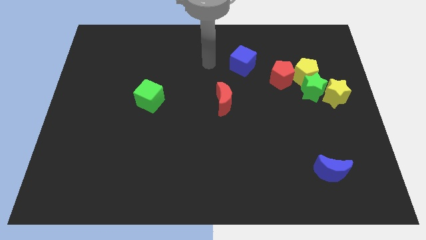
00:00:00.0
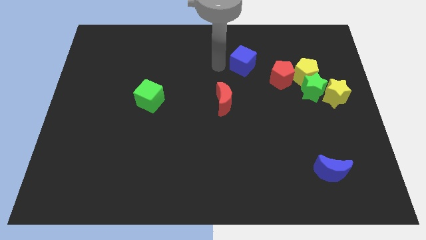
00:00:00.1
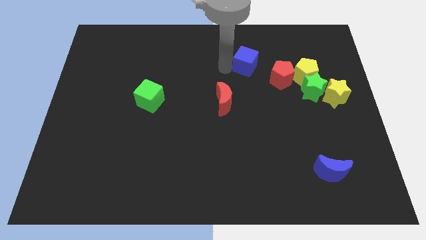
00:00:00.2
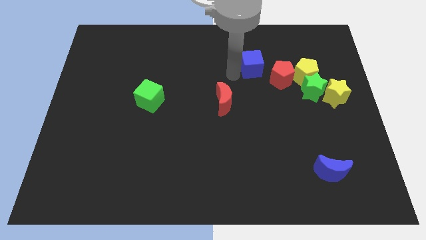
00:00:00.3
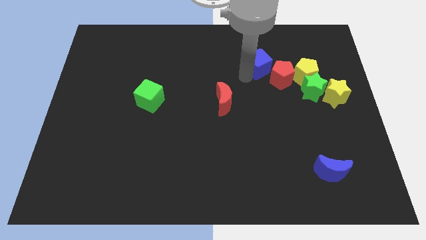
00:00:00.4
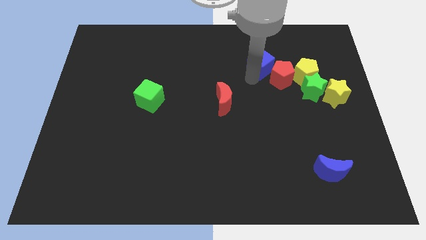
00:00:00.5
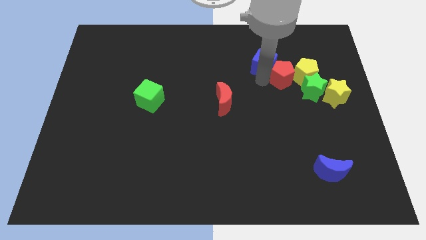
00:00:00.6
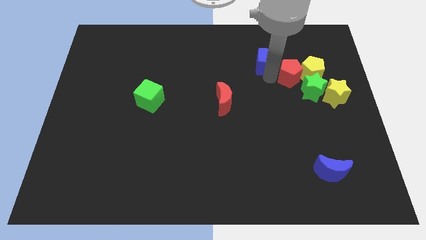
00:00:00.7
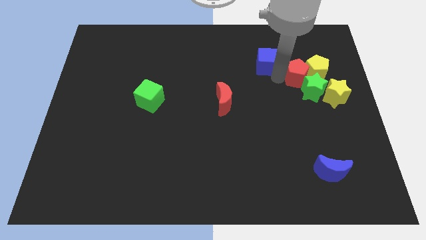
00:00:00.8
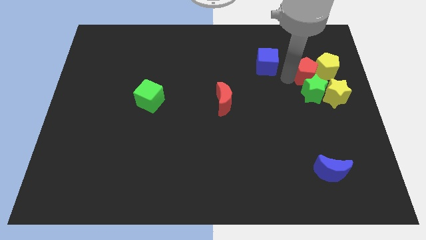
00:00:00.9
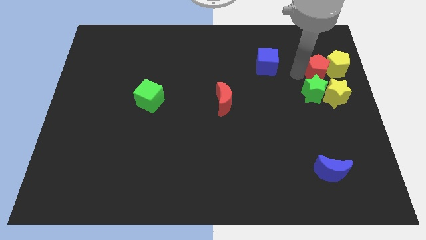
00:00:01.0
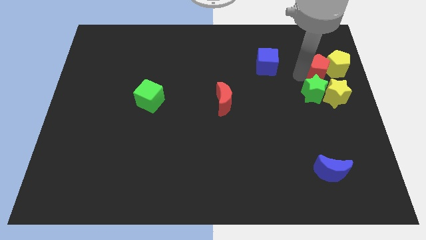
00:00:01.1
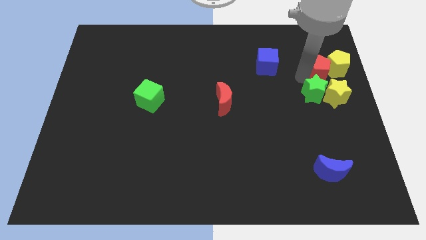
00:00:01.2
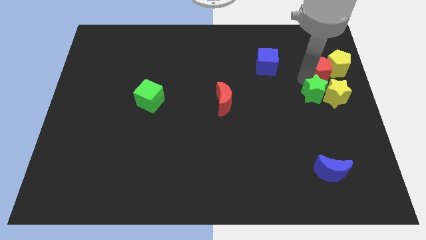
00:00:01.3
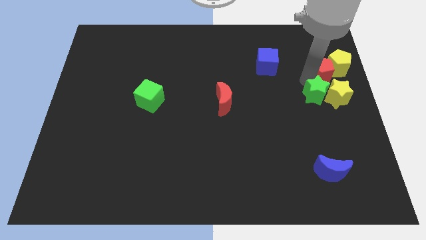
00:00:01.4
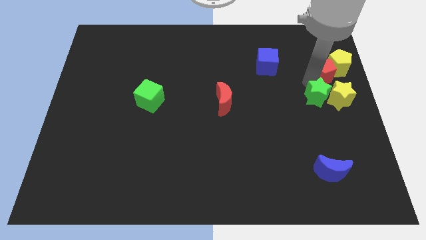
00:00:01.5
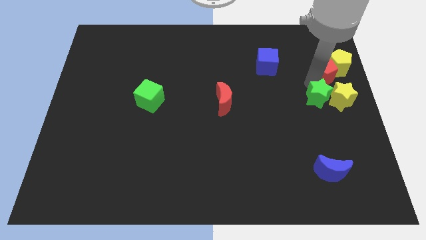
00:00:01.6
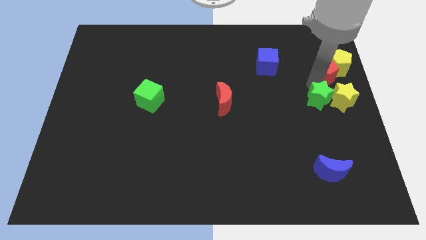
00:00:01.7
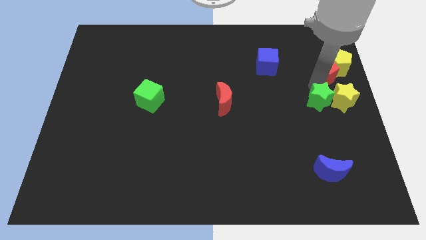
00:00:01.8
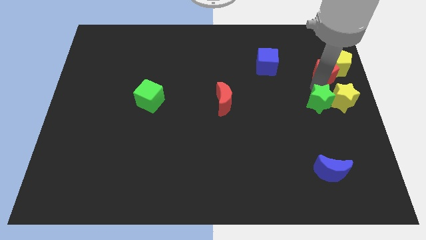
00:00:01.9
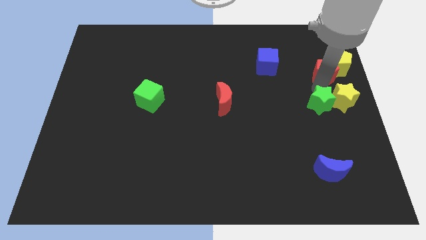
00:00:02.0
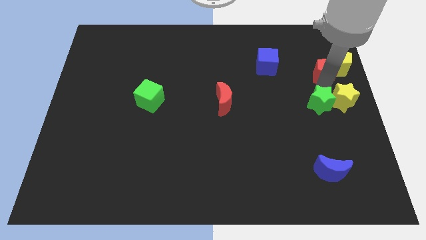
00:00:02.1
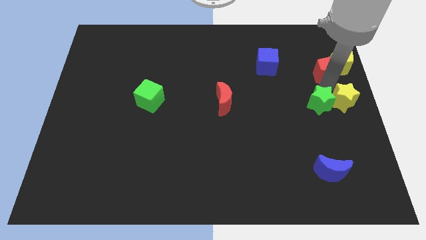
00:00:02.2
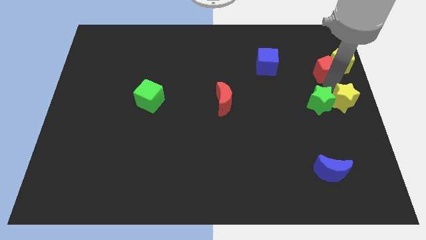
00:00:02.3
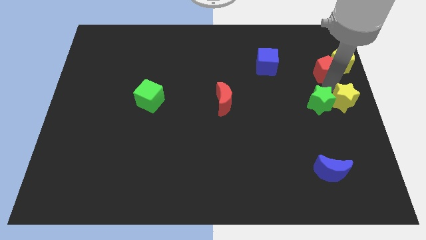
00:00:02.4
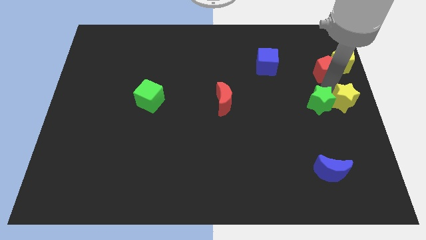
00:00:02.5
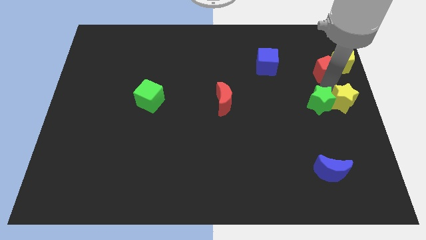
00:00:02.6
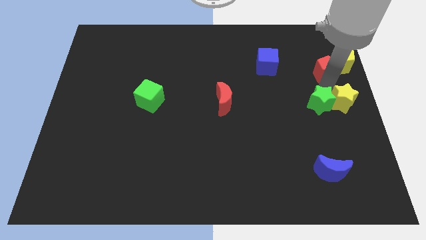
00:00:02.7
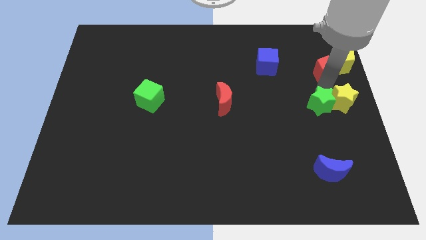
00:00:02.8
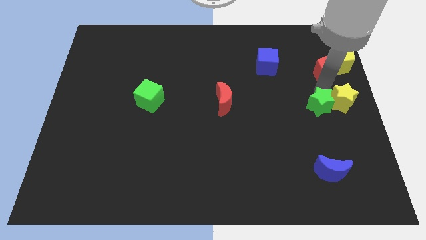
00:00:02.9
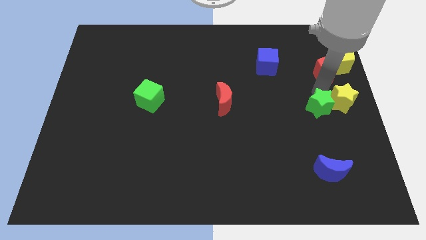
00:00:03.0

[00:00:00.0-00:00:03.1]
move the green star away from the group of blocks

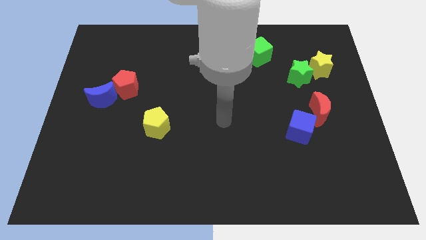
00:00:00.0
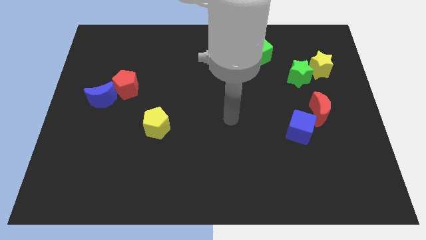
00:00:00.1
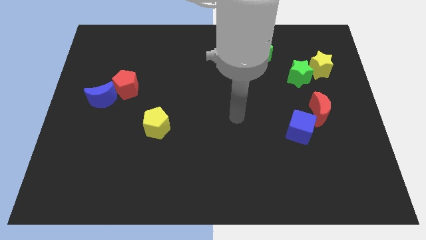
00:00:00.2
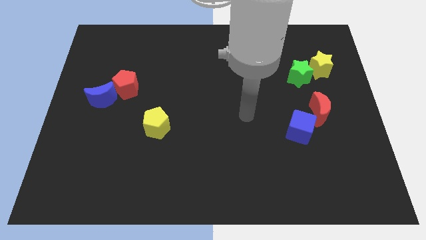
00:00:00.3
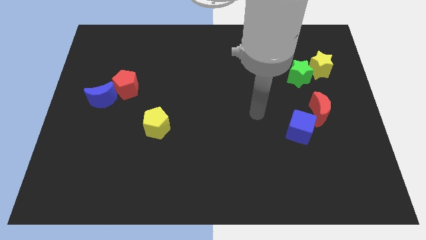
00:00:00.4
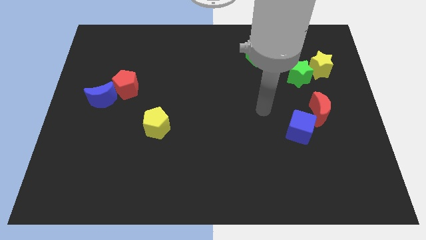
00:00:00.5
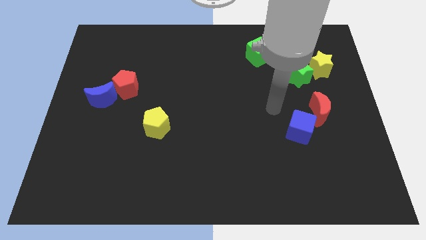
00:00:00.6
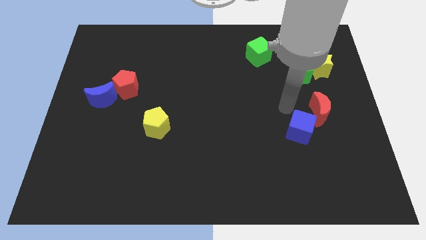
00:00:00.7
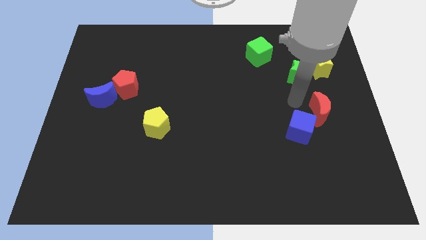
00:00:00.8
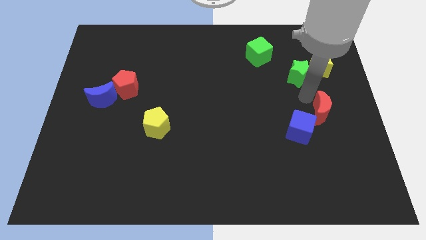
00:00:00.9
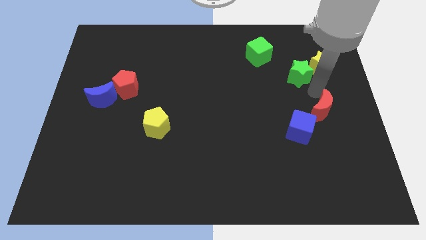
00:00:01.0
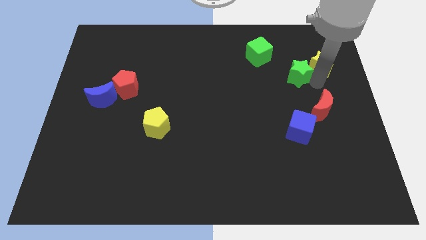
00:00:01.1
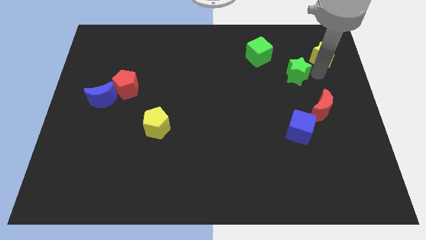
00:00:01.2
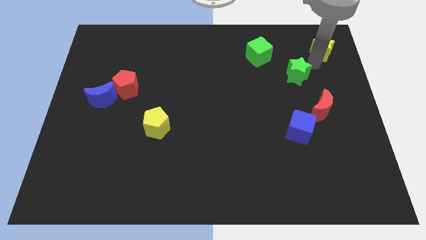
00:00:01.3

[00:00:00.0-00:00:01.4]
separate the green star from the yellow star

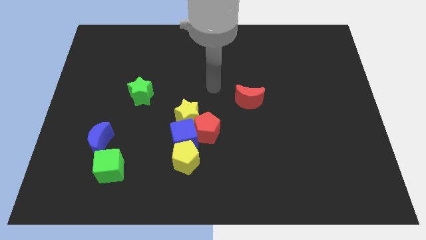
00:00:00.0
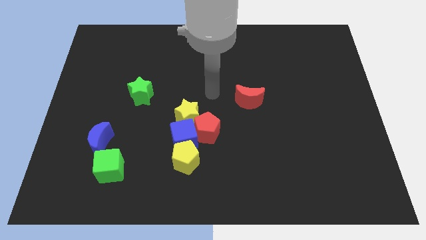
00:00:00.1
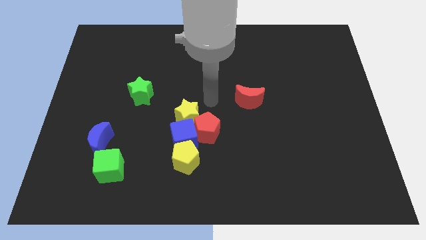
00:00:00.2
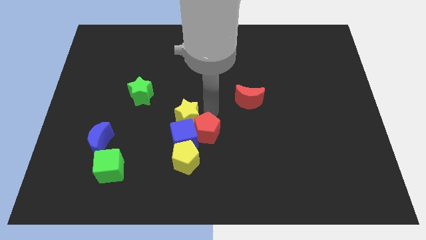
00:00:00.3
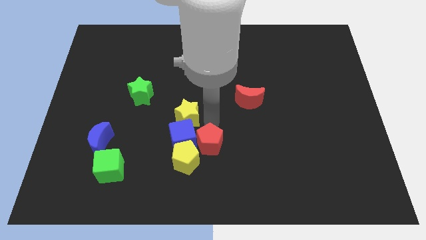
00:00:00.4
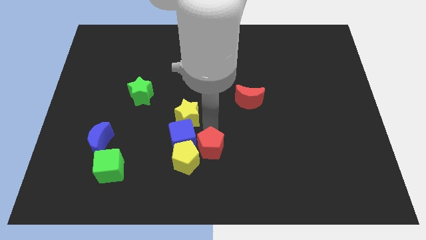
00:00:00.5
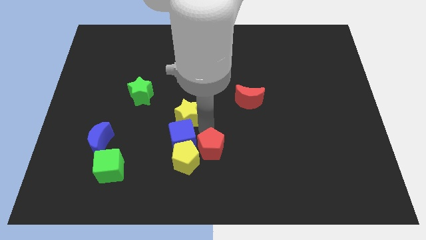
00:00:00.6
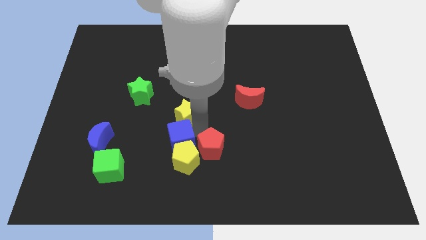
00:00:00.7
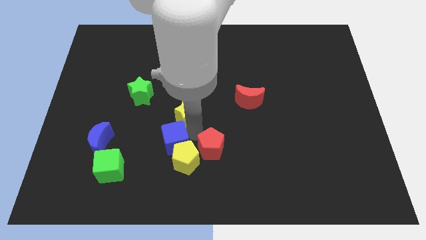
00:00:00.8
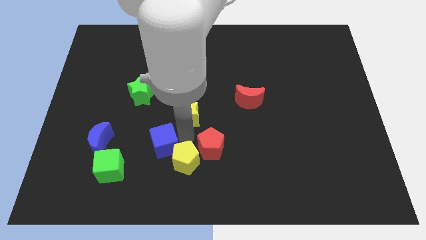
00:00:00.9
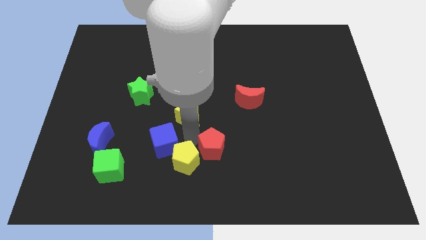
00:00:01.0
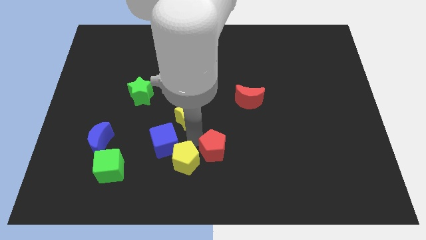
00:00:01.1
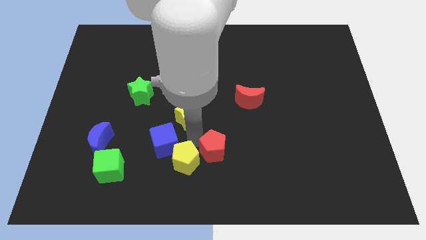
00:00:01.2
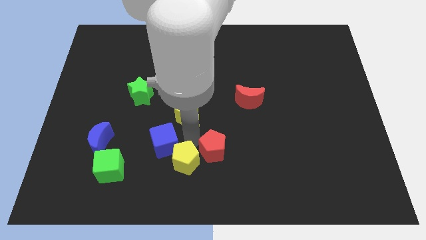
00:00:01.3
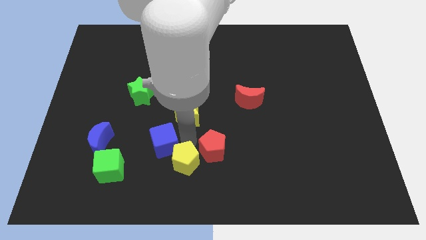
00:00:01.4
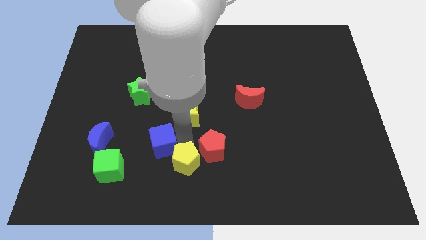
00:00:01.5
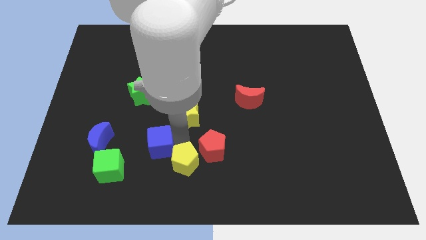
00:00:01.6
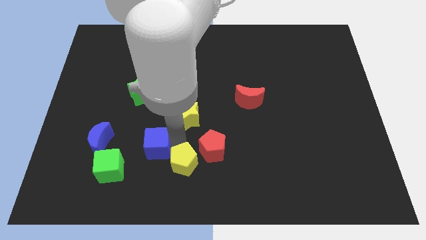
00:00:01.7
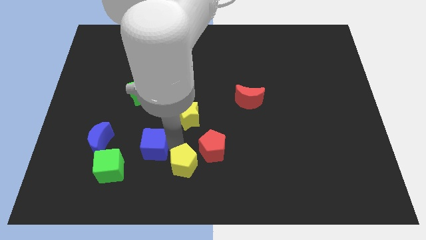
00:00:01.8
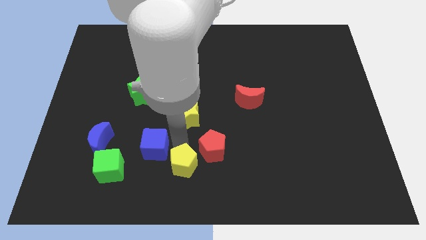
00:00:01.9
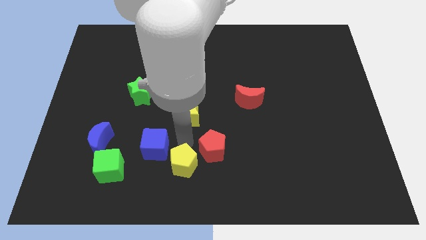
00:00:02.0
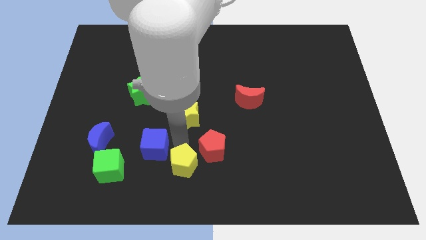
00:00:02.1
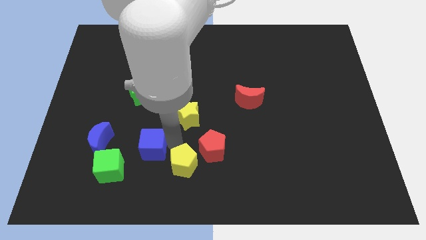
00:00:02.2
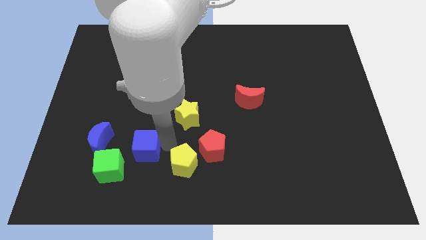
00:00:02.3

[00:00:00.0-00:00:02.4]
separate the blue cube from the group of blocks

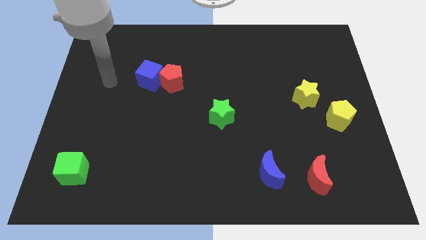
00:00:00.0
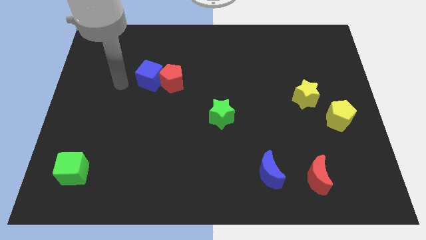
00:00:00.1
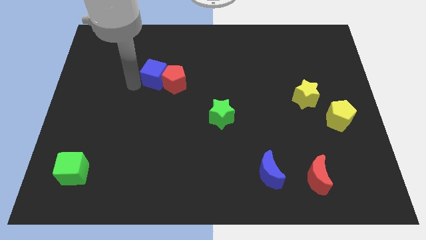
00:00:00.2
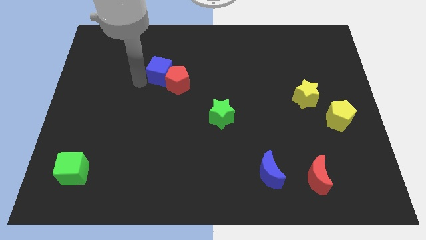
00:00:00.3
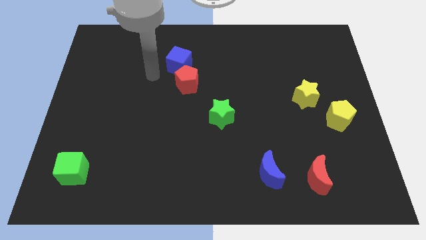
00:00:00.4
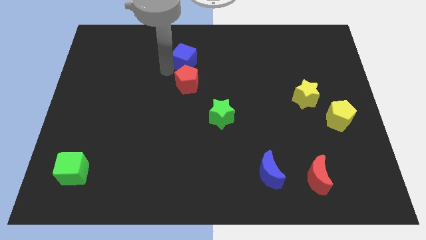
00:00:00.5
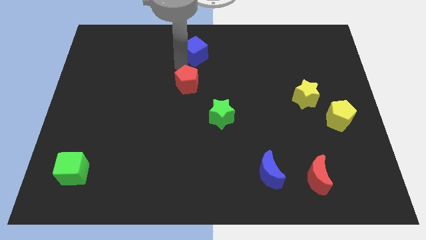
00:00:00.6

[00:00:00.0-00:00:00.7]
separate the red pentagon from the blue cube

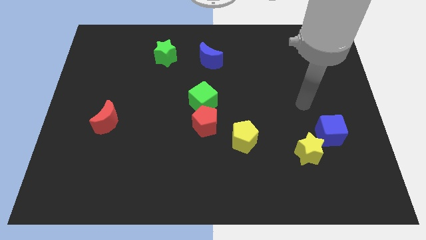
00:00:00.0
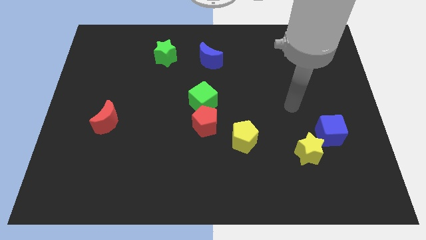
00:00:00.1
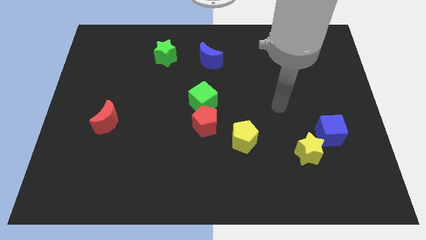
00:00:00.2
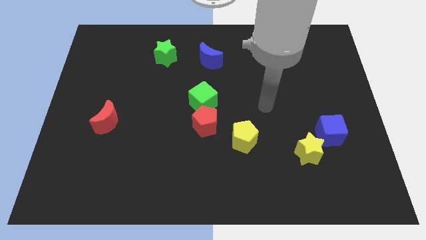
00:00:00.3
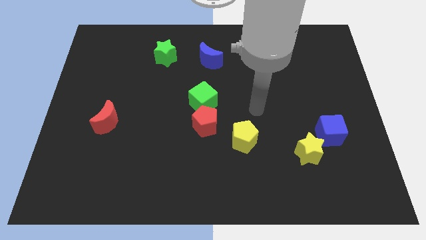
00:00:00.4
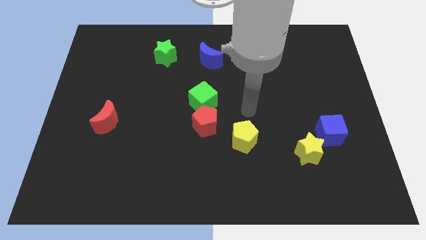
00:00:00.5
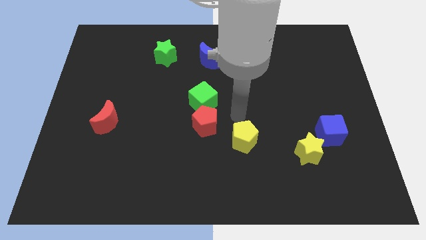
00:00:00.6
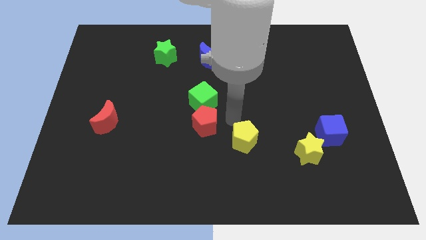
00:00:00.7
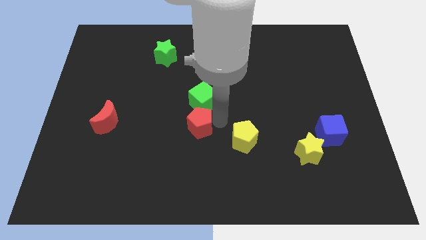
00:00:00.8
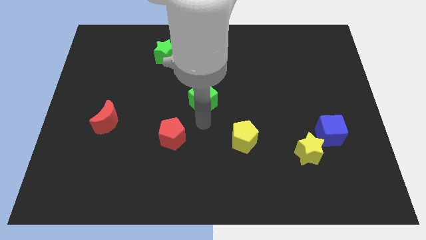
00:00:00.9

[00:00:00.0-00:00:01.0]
separate the green cube from the red pentagon

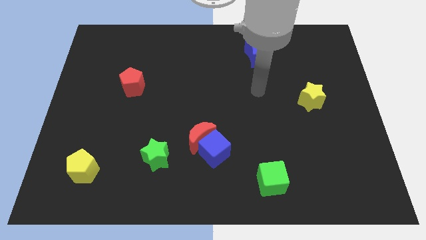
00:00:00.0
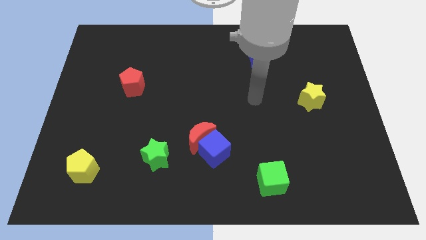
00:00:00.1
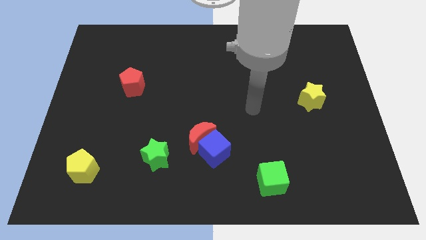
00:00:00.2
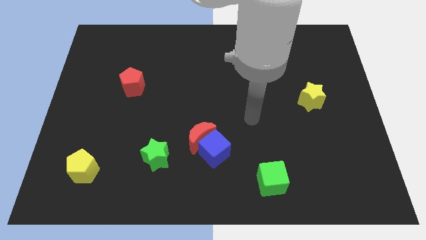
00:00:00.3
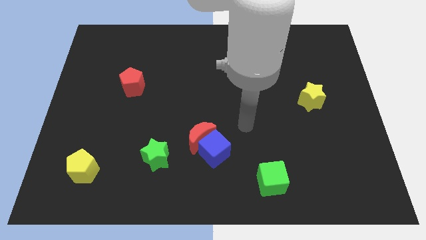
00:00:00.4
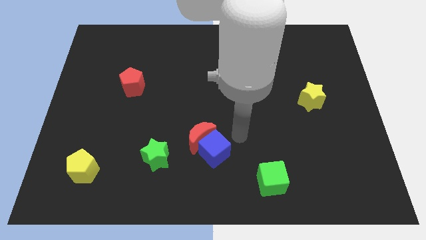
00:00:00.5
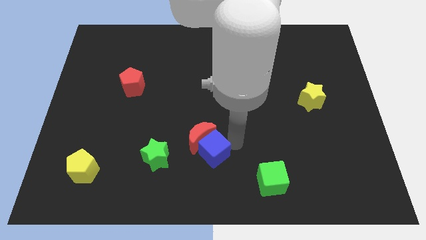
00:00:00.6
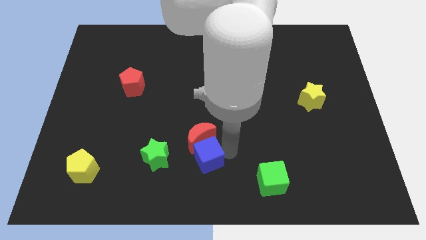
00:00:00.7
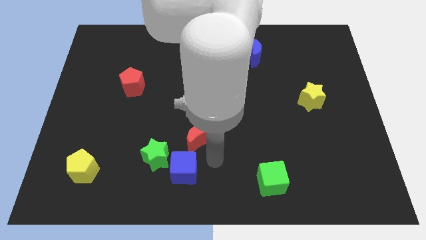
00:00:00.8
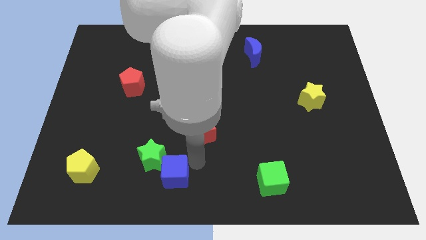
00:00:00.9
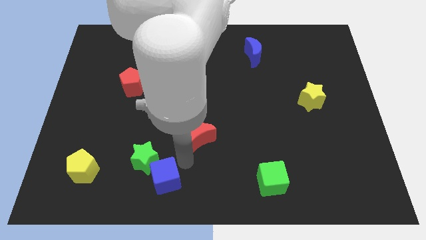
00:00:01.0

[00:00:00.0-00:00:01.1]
move the red moon away from the blue cube
